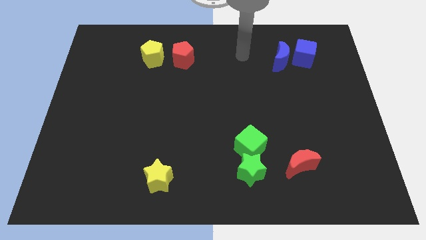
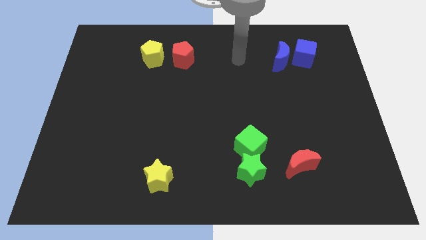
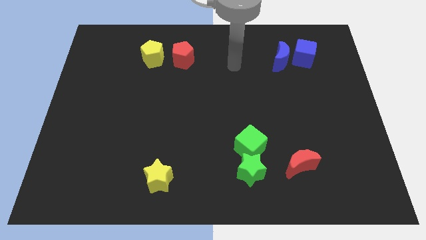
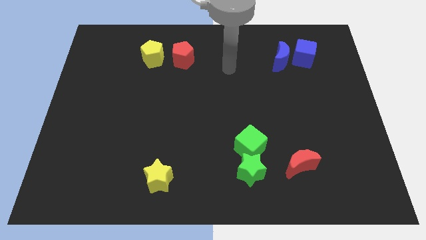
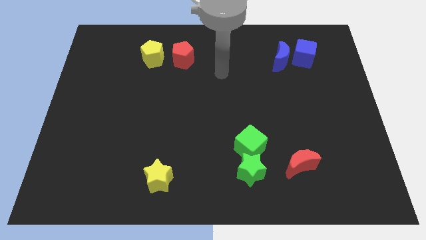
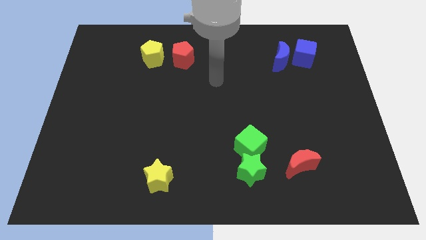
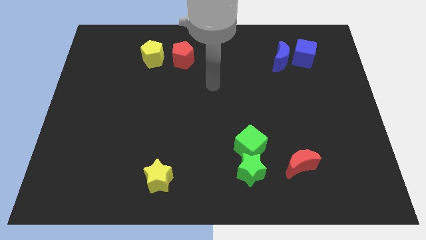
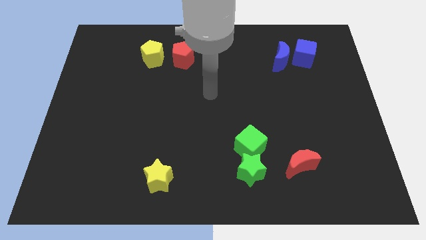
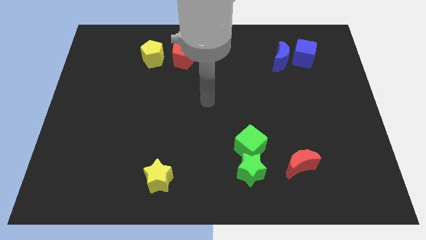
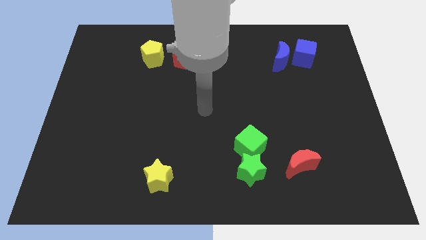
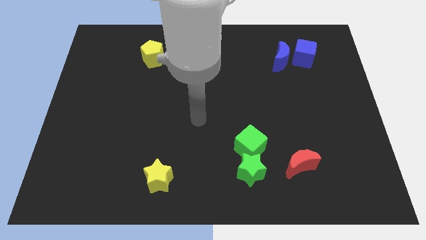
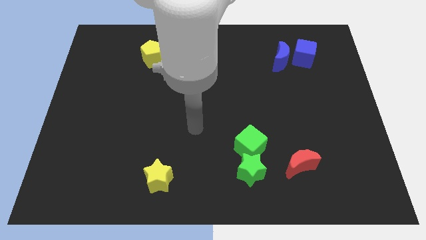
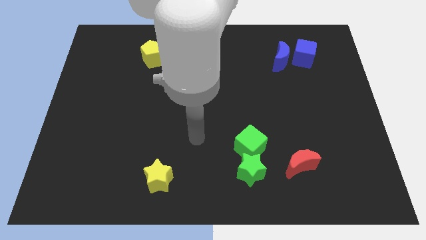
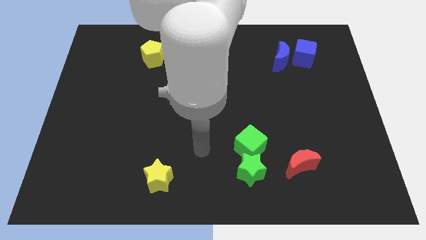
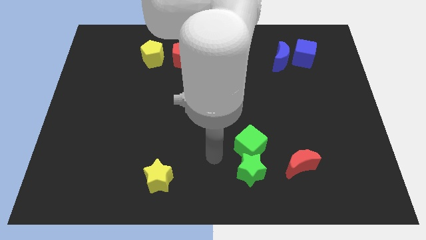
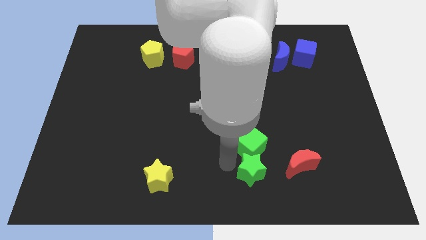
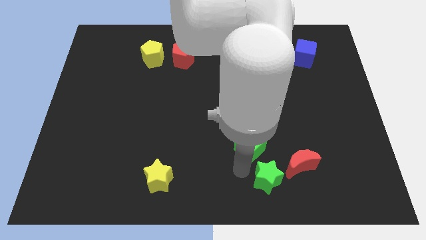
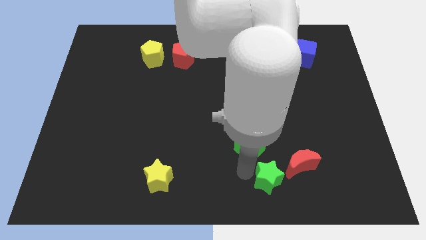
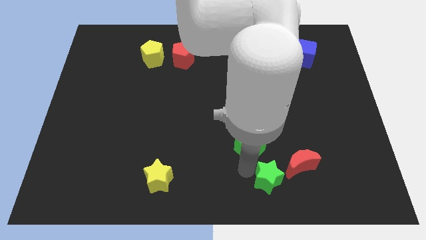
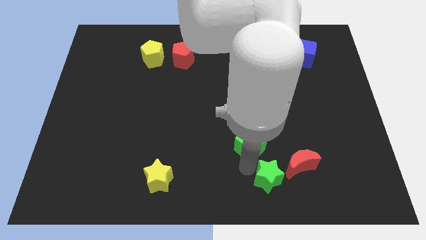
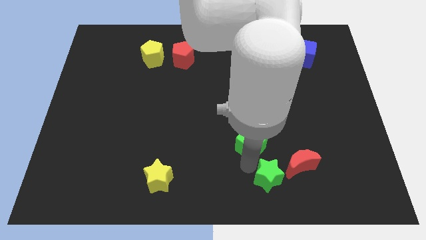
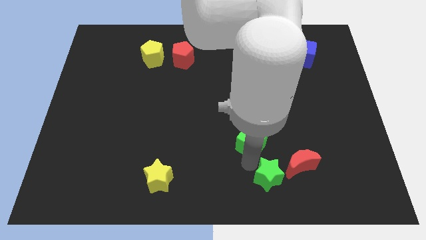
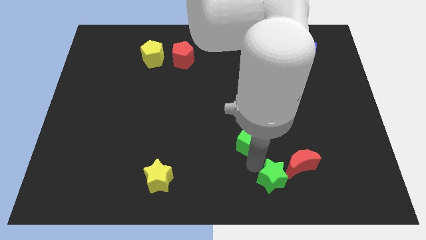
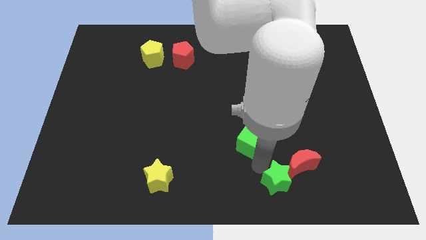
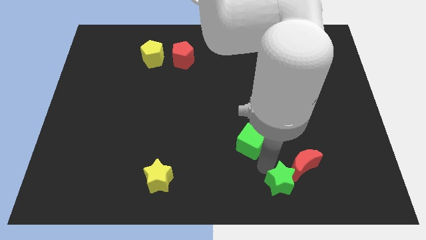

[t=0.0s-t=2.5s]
pull the green cube apart from the green star

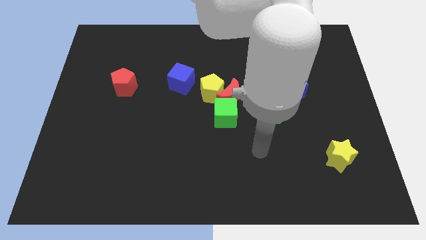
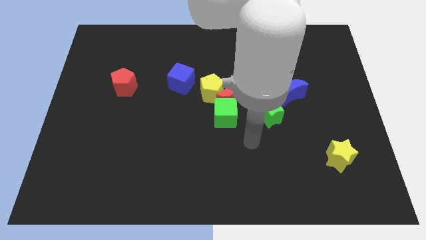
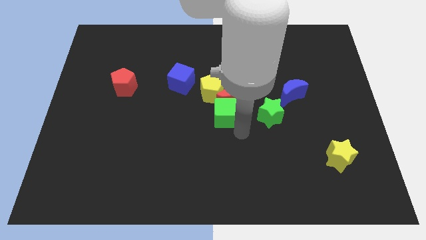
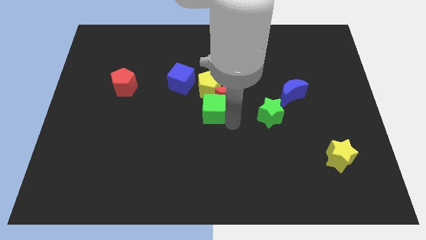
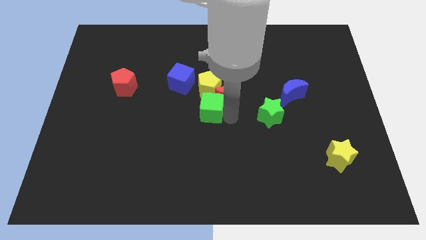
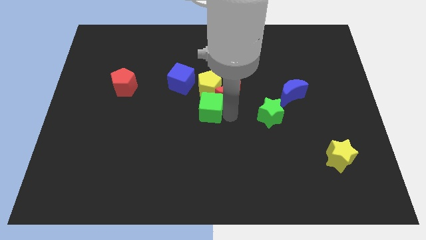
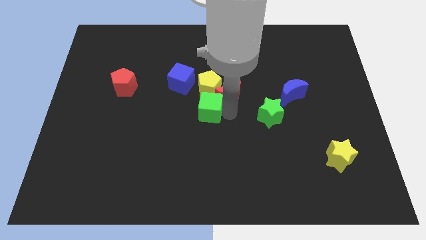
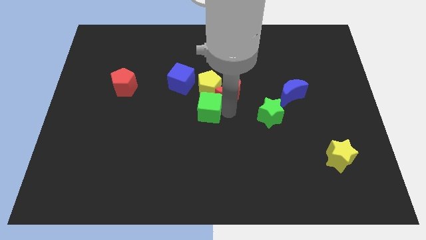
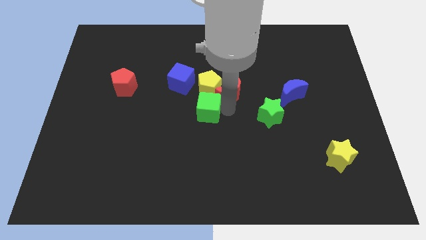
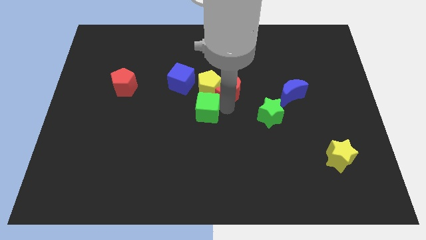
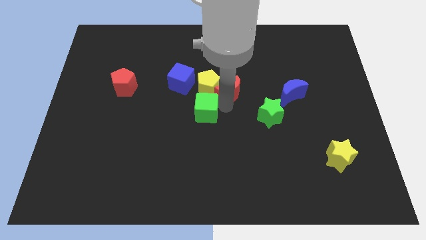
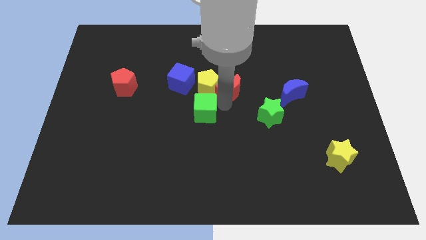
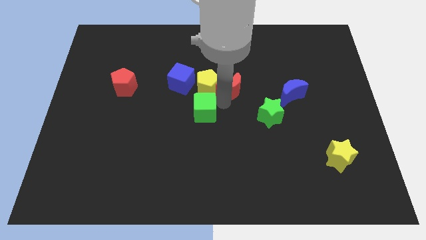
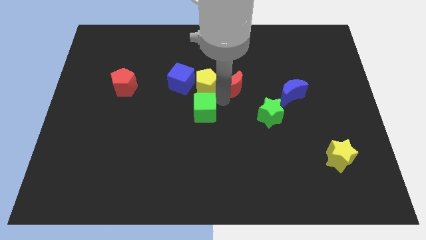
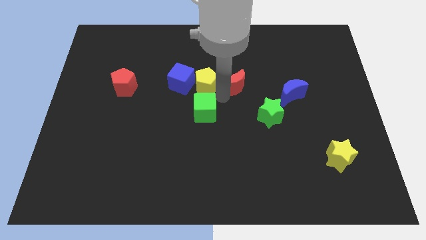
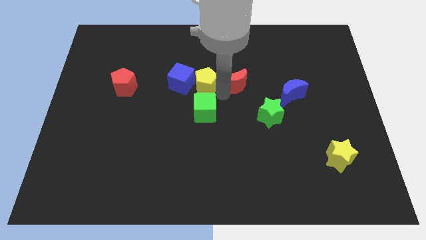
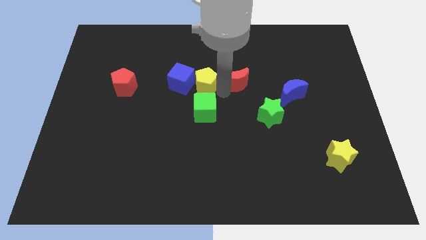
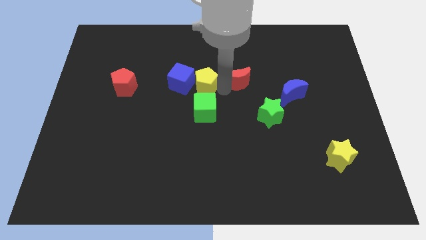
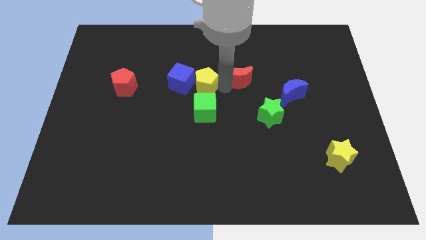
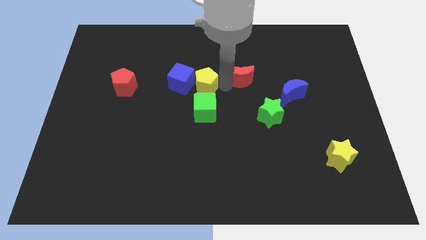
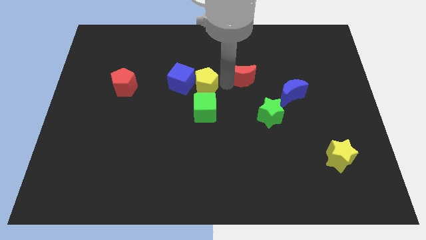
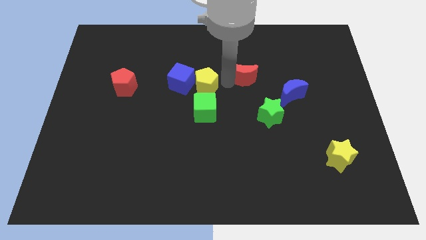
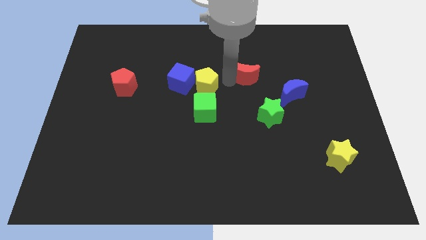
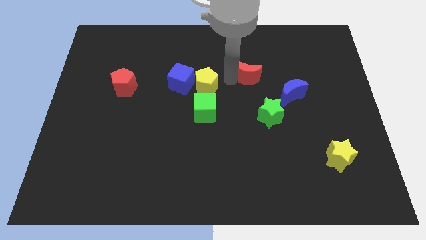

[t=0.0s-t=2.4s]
pull the red moon apart from the group

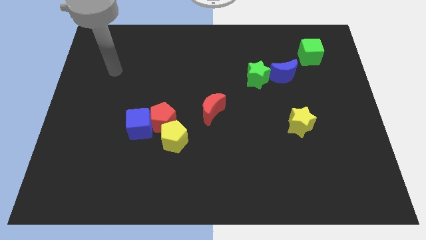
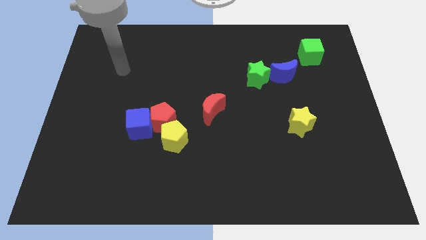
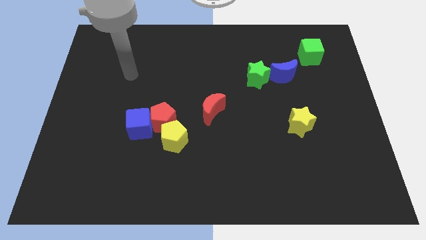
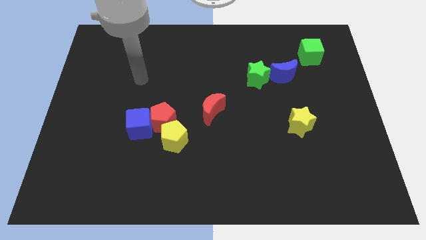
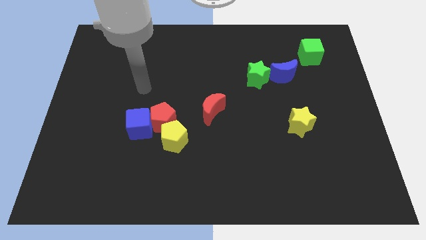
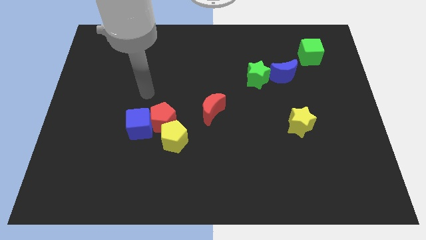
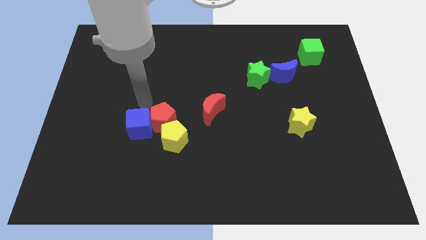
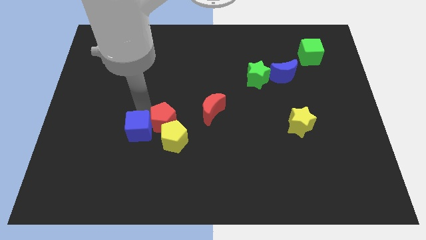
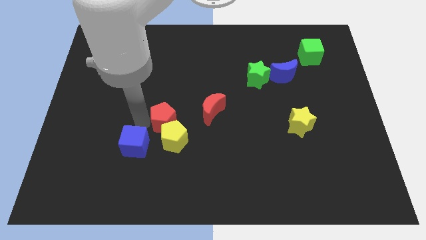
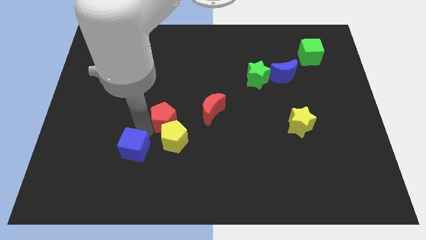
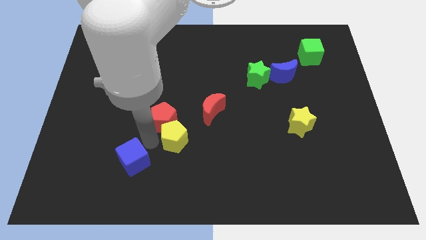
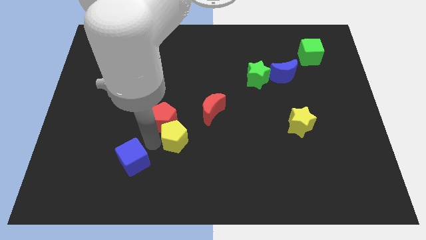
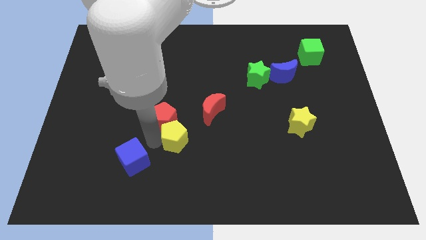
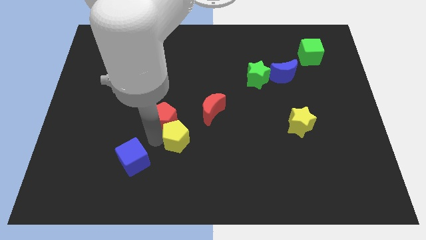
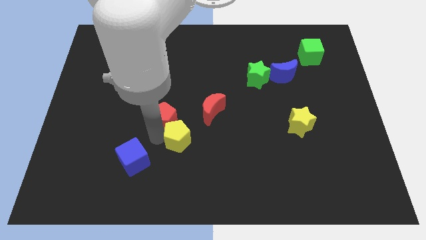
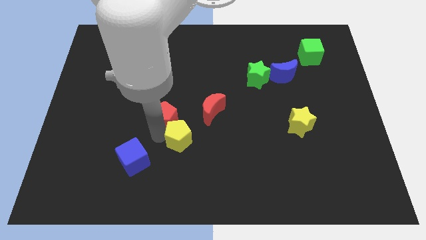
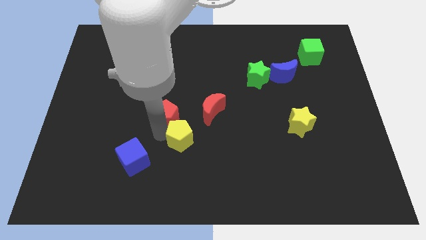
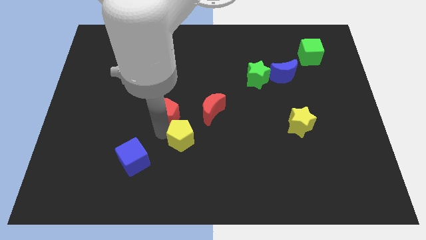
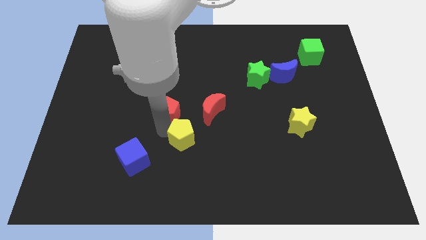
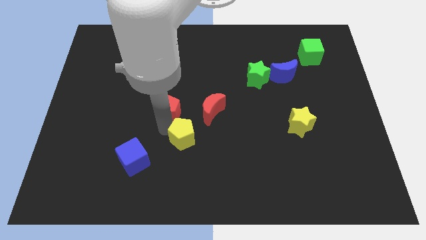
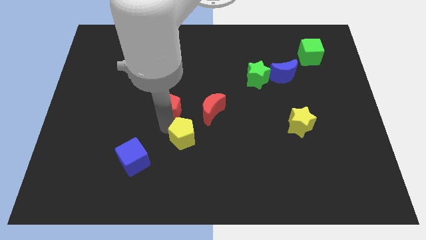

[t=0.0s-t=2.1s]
separate the red pentagon from the blue cube and yellow pentagon

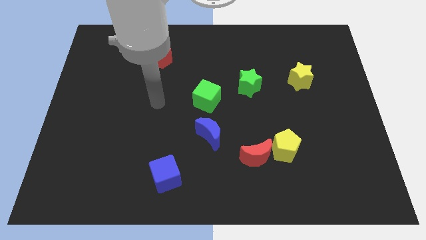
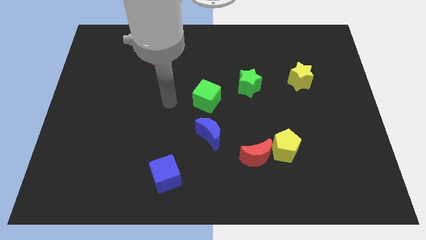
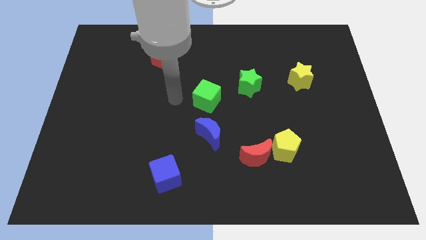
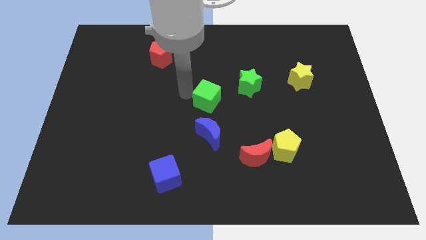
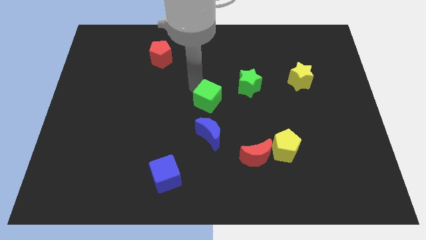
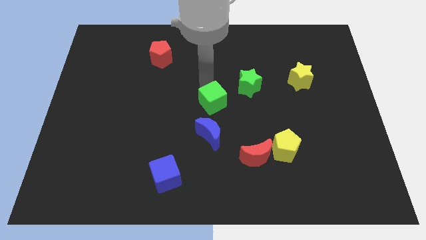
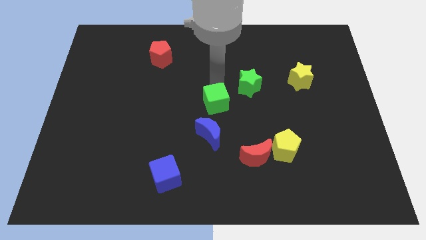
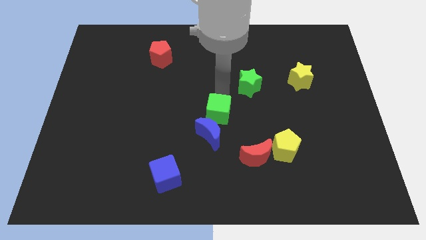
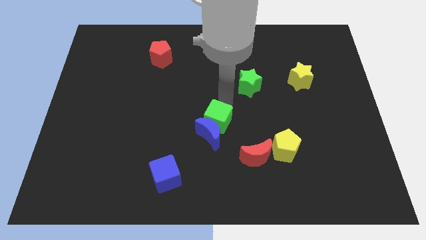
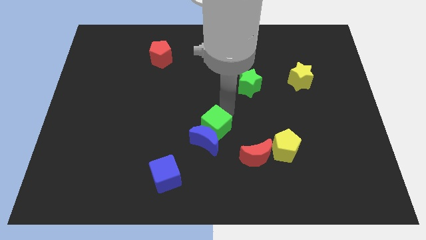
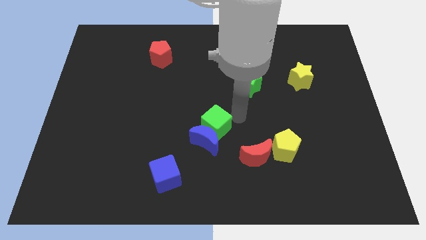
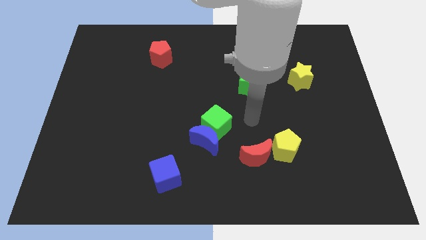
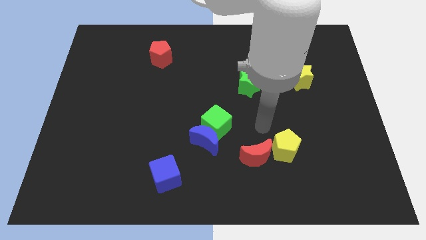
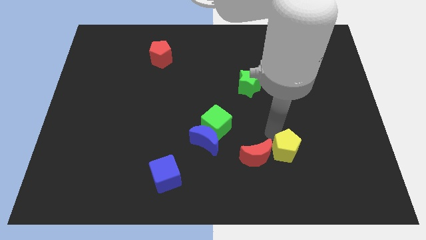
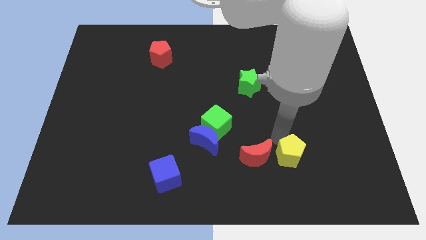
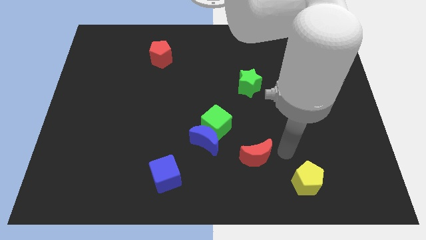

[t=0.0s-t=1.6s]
pull the red moon apart from the yellow pentagon

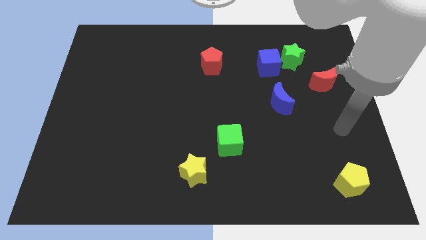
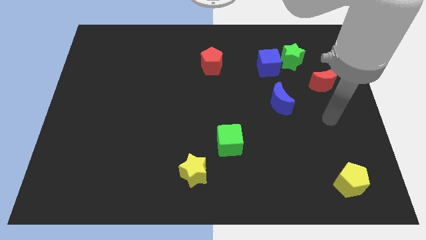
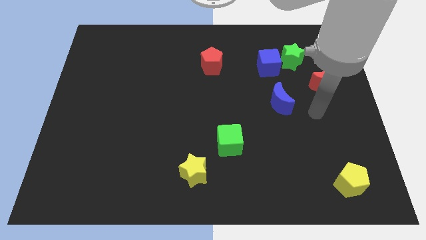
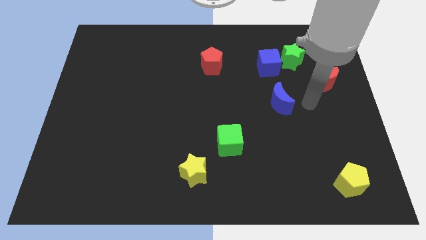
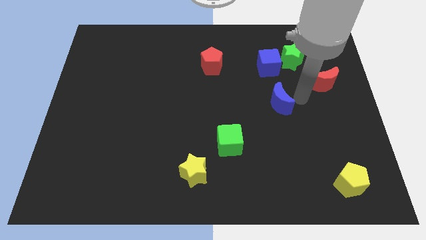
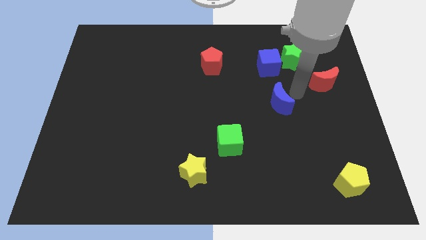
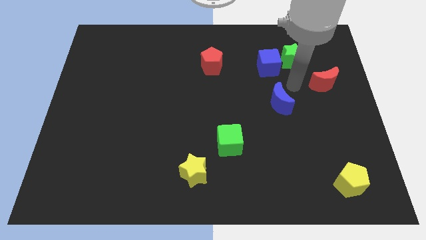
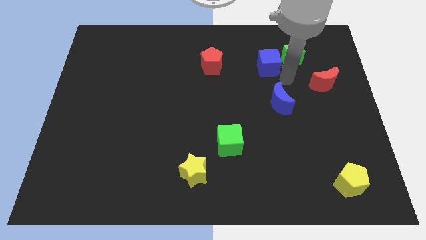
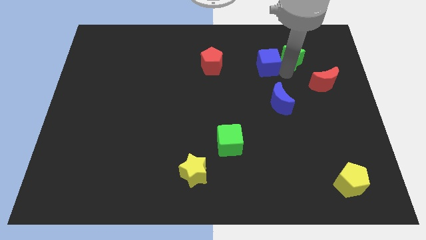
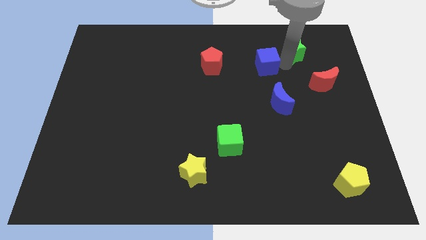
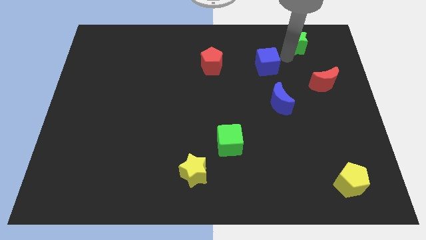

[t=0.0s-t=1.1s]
move the blue cube away from the green star
